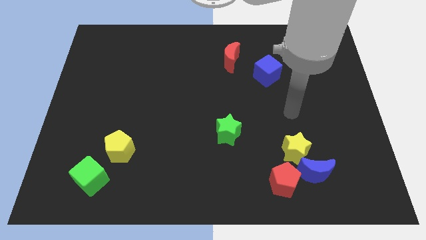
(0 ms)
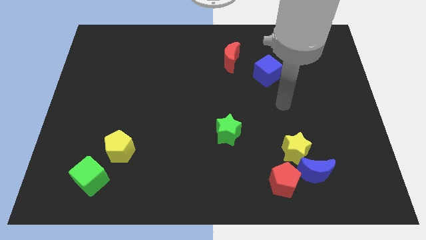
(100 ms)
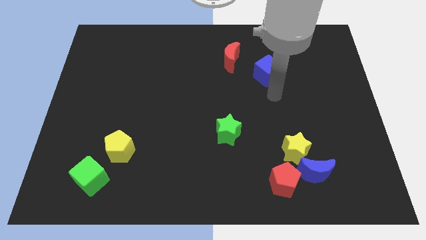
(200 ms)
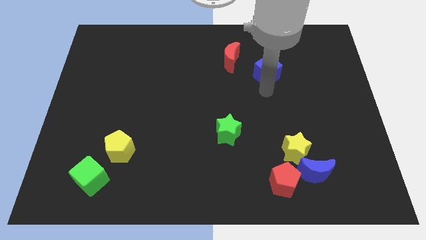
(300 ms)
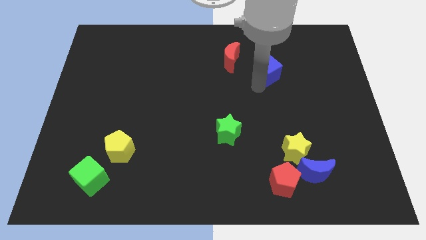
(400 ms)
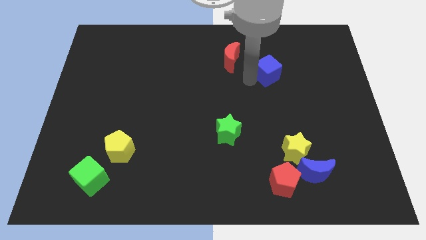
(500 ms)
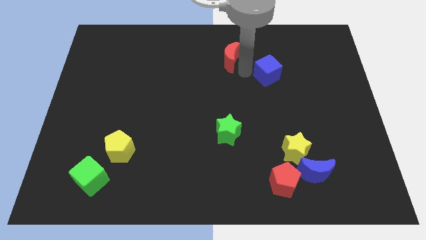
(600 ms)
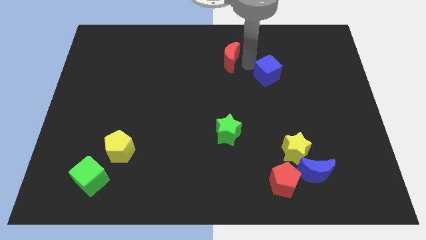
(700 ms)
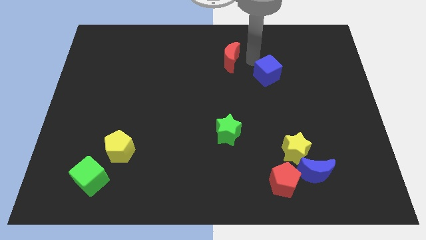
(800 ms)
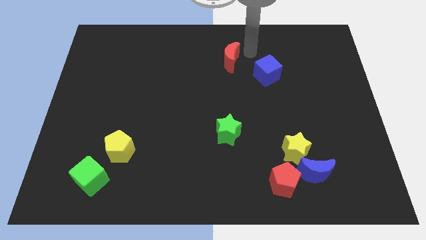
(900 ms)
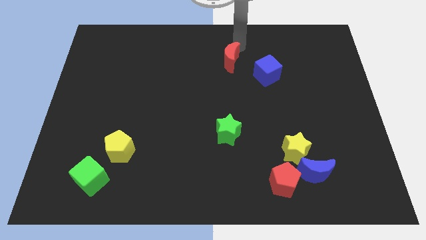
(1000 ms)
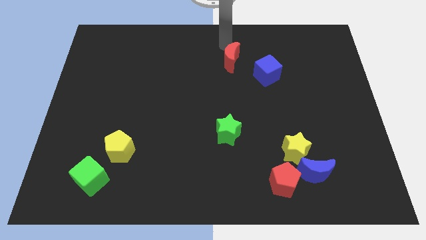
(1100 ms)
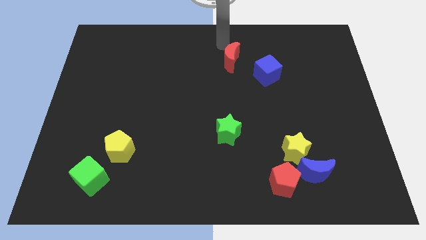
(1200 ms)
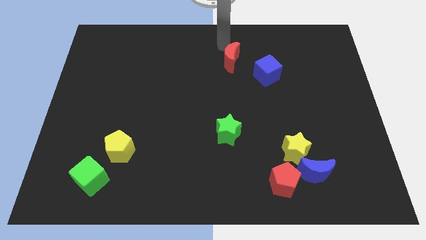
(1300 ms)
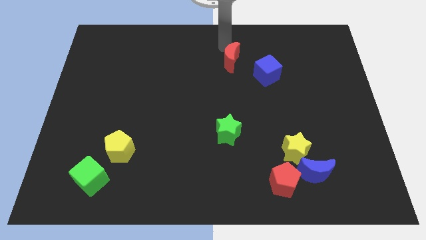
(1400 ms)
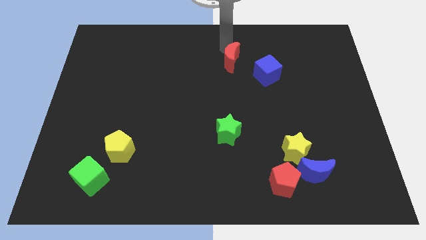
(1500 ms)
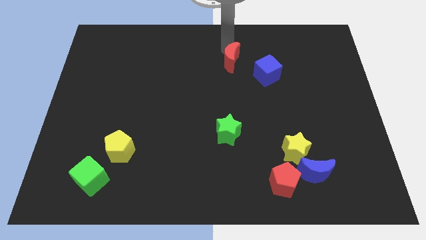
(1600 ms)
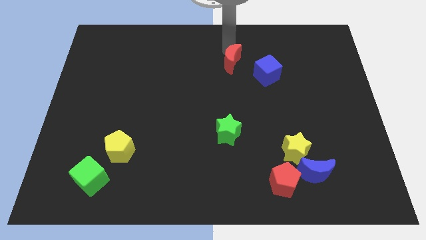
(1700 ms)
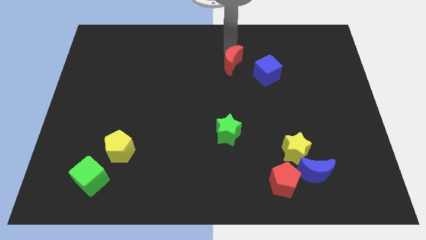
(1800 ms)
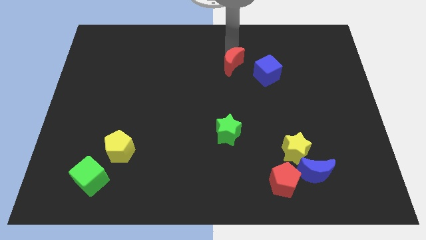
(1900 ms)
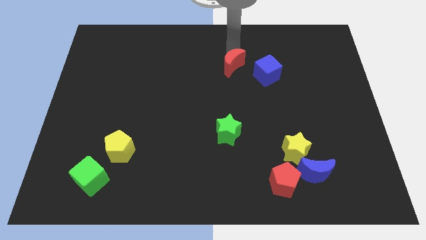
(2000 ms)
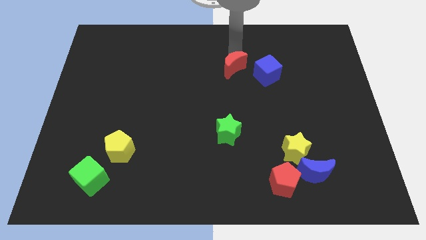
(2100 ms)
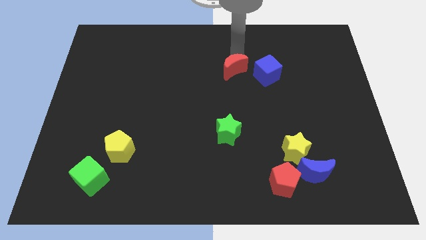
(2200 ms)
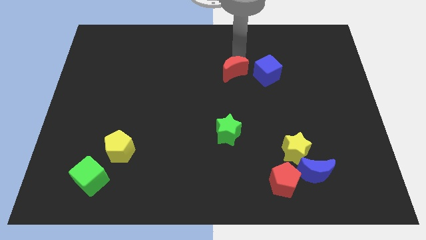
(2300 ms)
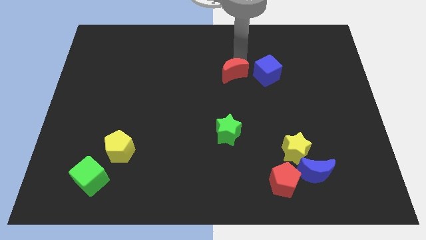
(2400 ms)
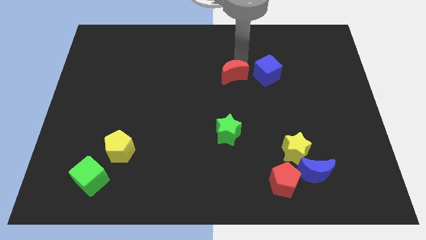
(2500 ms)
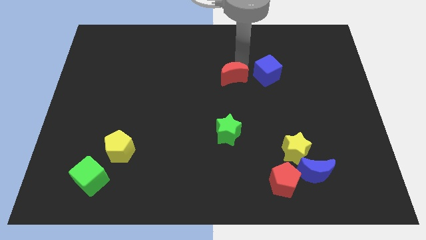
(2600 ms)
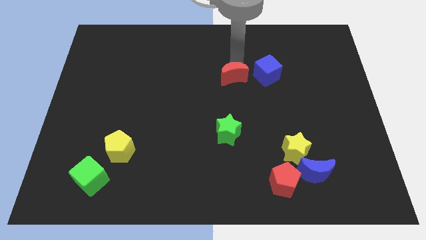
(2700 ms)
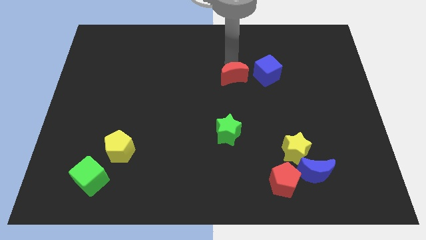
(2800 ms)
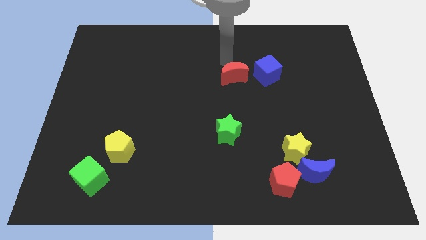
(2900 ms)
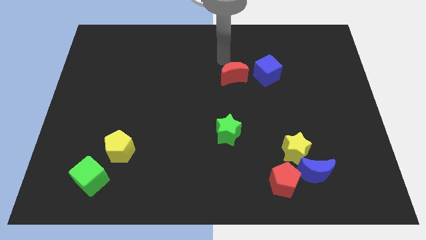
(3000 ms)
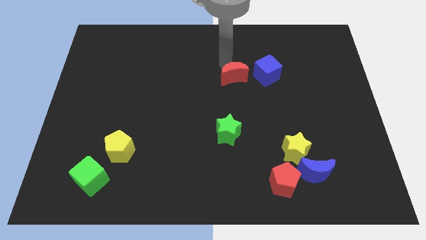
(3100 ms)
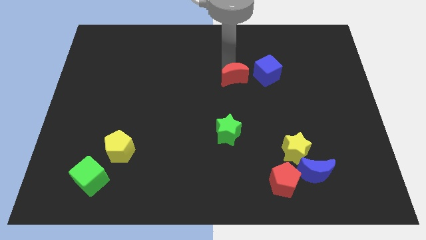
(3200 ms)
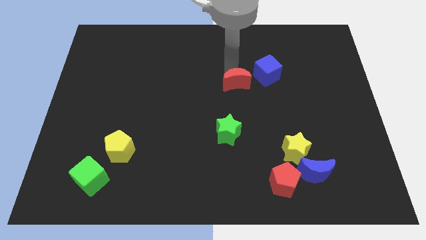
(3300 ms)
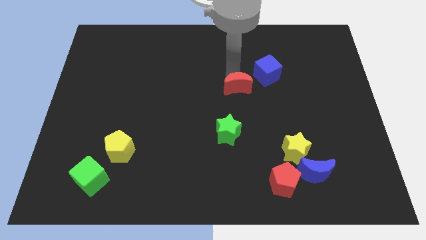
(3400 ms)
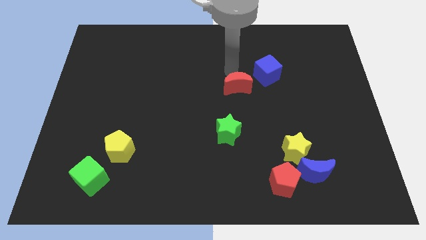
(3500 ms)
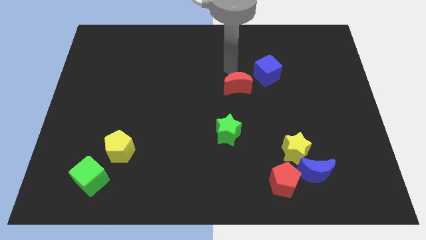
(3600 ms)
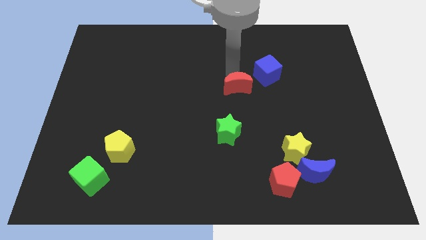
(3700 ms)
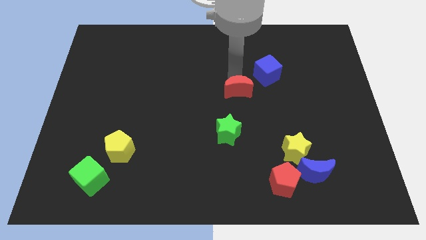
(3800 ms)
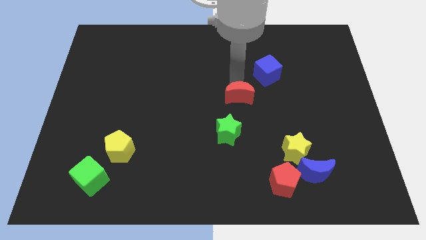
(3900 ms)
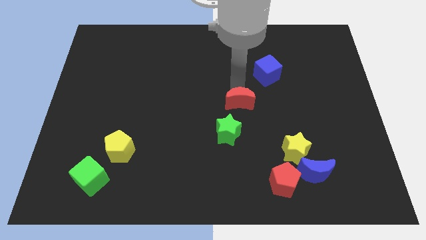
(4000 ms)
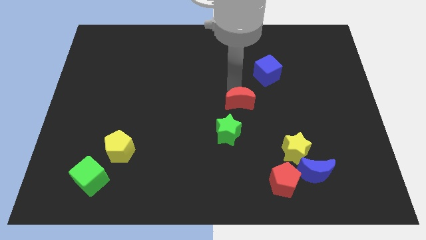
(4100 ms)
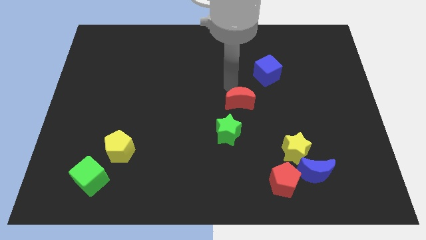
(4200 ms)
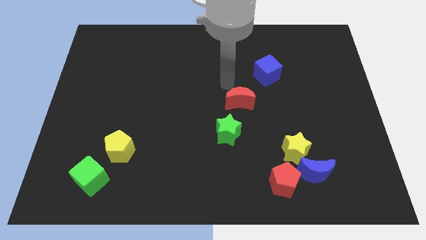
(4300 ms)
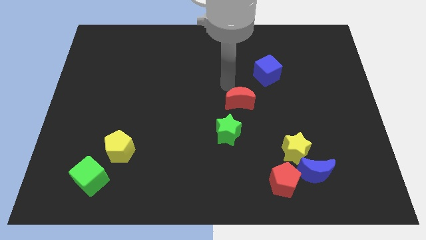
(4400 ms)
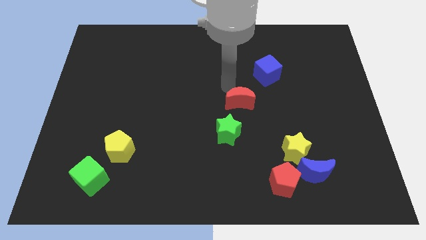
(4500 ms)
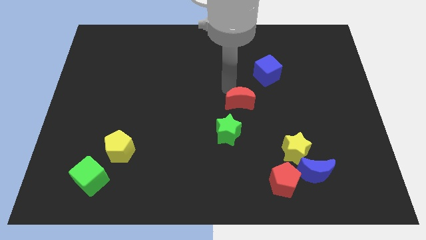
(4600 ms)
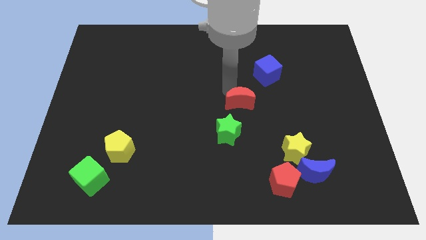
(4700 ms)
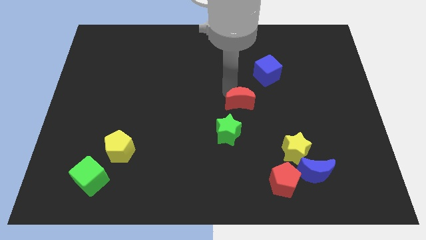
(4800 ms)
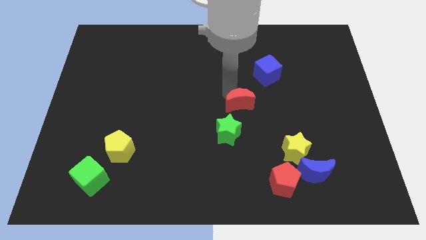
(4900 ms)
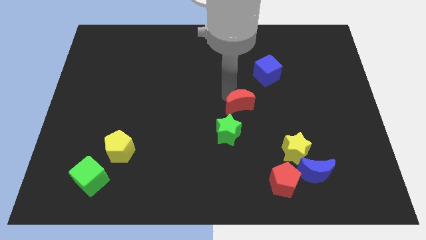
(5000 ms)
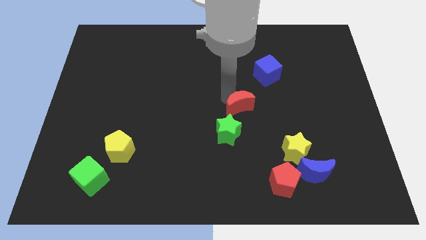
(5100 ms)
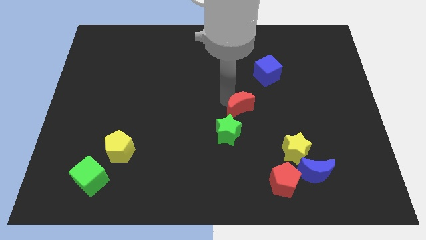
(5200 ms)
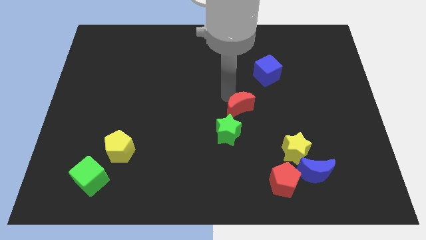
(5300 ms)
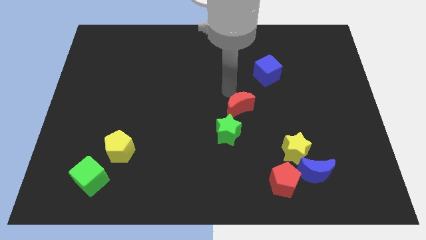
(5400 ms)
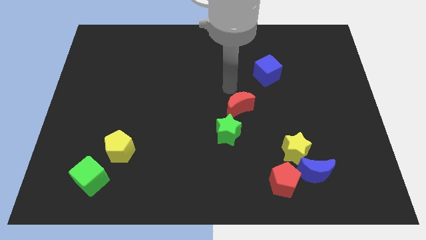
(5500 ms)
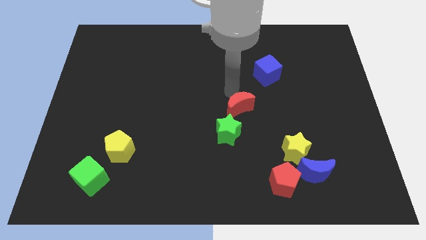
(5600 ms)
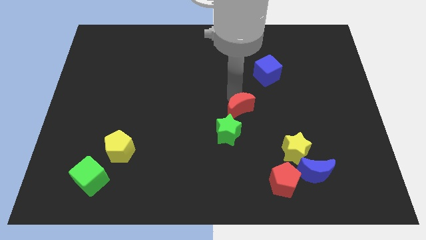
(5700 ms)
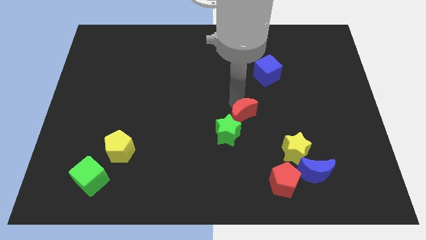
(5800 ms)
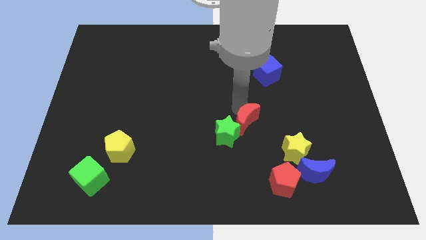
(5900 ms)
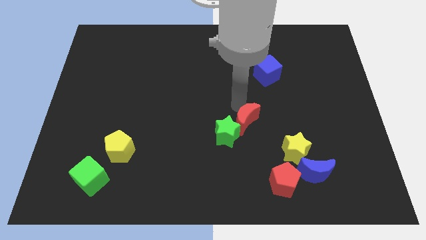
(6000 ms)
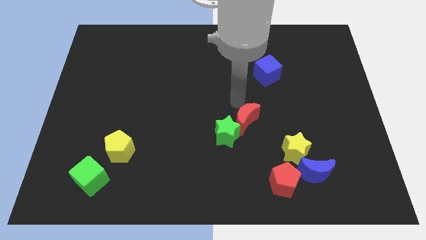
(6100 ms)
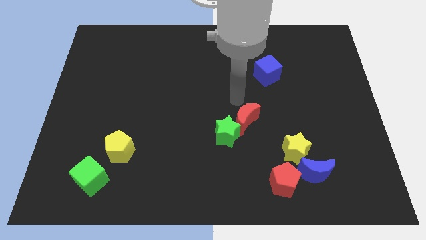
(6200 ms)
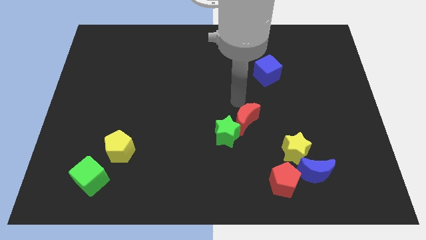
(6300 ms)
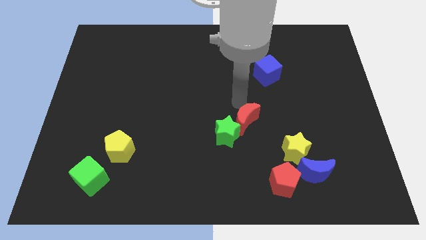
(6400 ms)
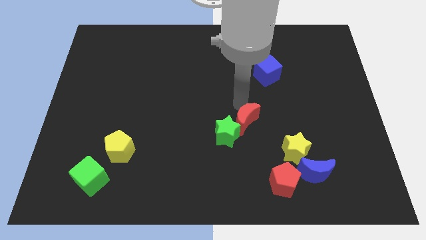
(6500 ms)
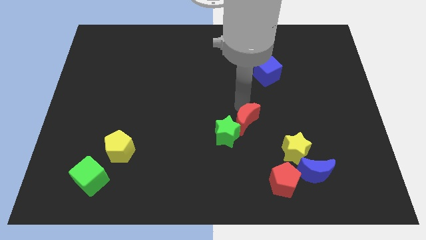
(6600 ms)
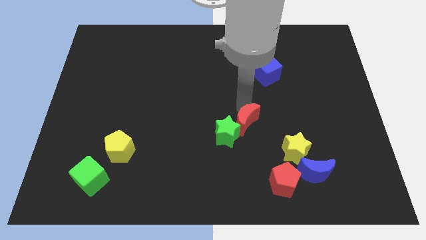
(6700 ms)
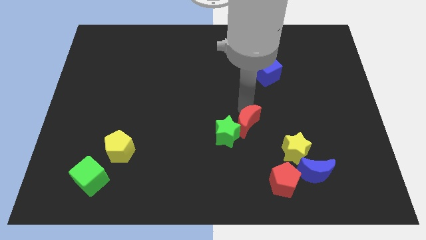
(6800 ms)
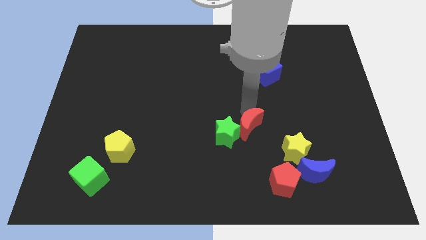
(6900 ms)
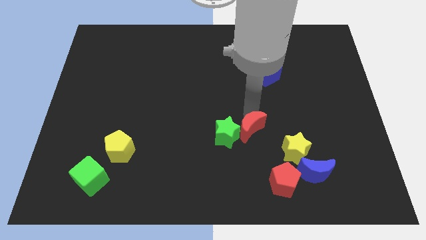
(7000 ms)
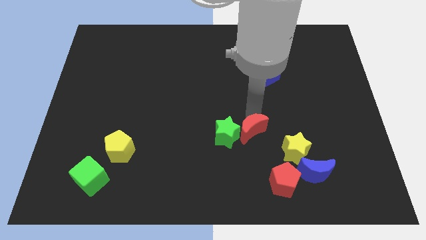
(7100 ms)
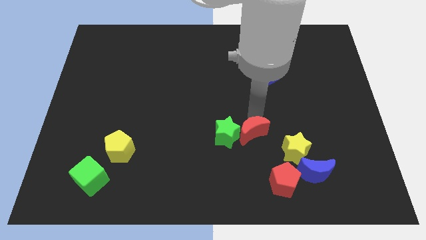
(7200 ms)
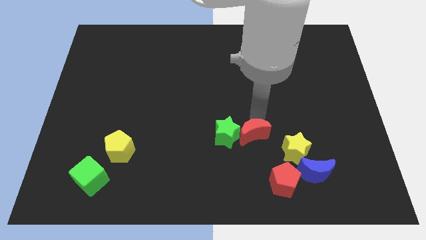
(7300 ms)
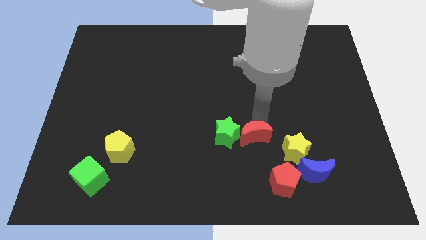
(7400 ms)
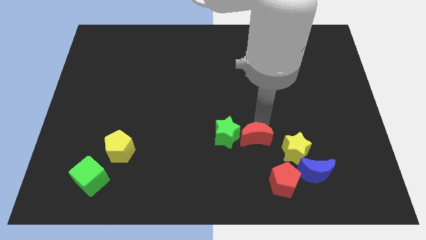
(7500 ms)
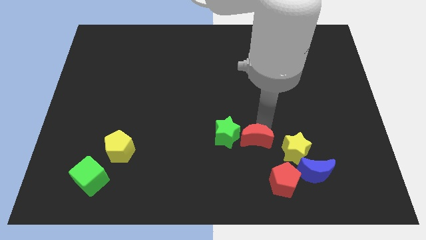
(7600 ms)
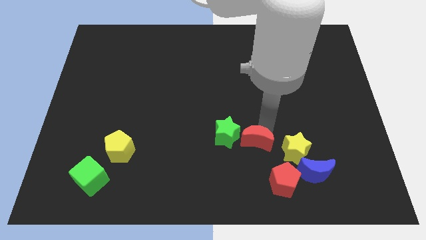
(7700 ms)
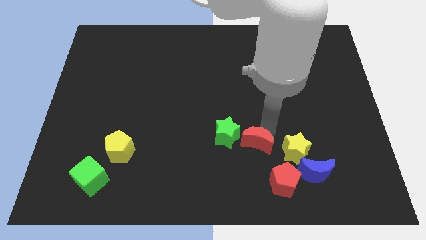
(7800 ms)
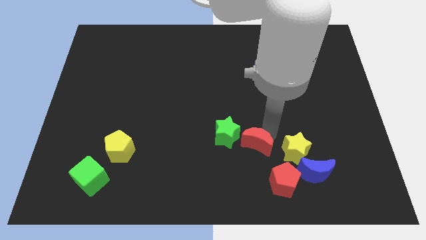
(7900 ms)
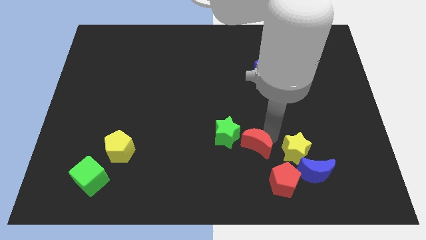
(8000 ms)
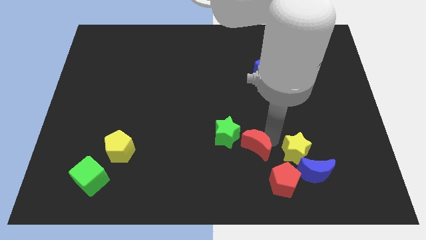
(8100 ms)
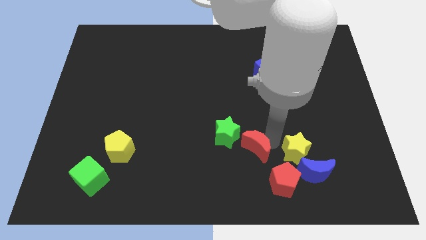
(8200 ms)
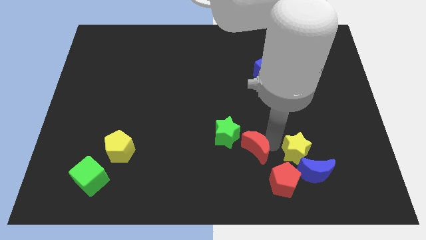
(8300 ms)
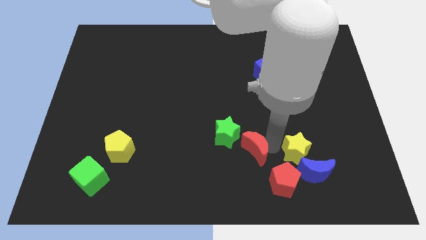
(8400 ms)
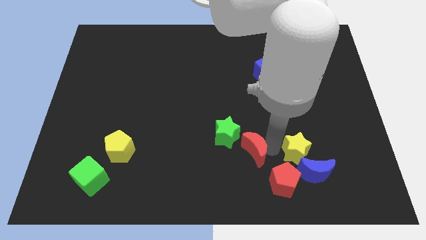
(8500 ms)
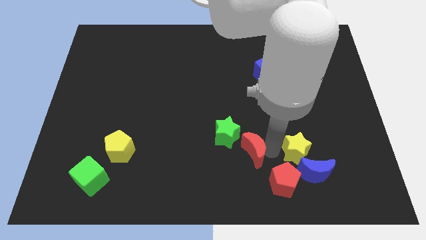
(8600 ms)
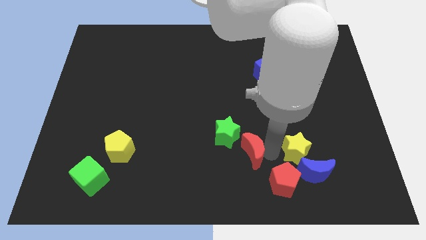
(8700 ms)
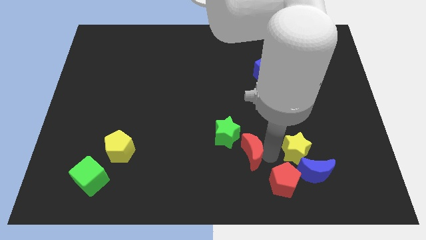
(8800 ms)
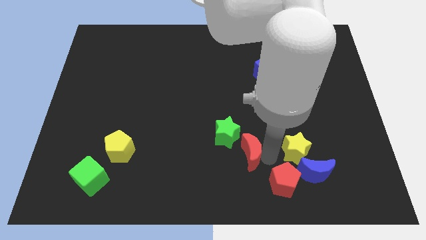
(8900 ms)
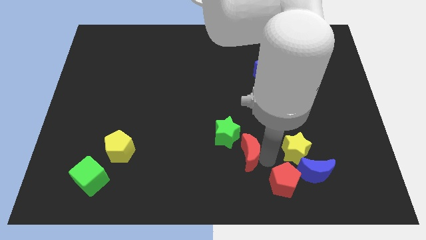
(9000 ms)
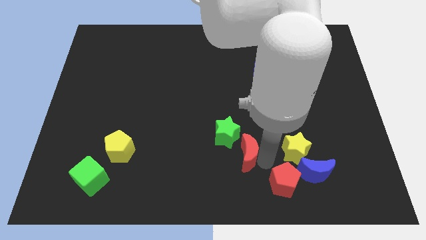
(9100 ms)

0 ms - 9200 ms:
put the red moon to the bottom of the green star
